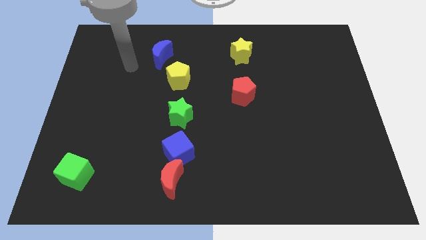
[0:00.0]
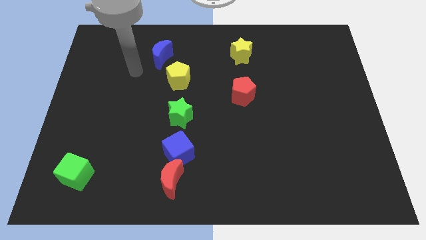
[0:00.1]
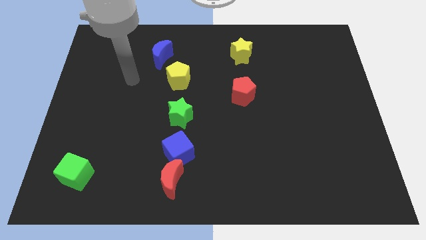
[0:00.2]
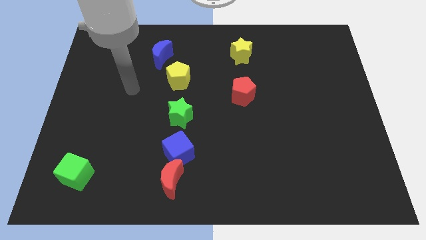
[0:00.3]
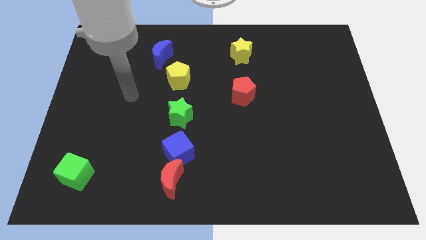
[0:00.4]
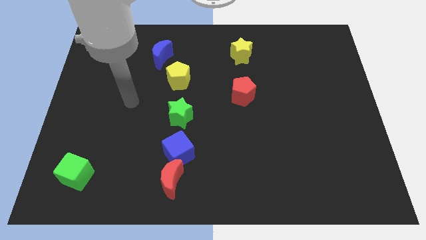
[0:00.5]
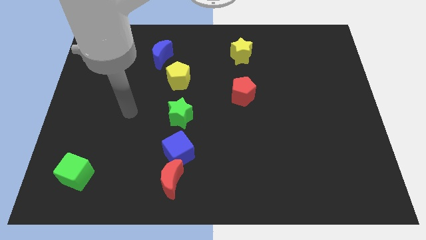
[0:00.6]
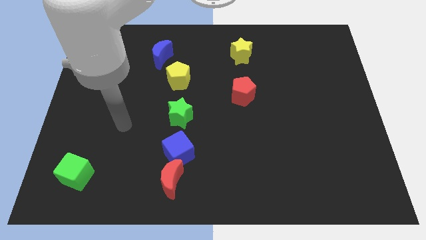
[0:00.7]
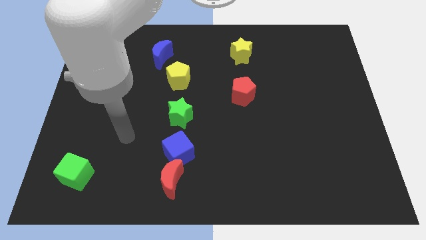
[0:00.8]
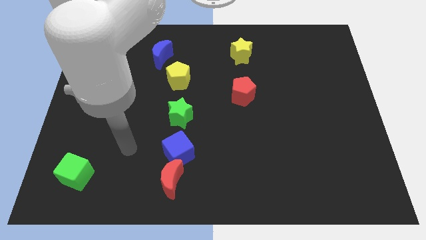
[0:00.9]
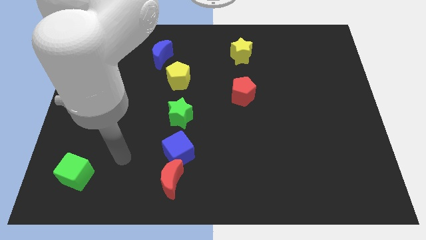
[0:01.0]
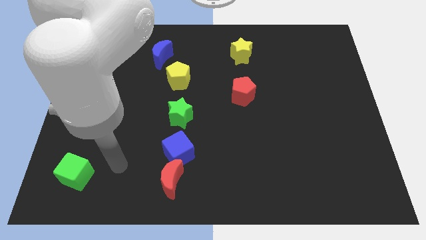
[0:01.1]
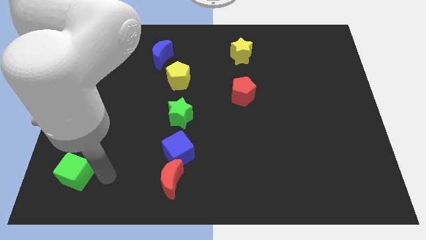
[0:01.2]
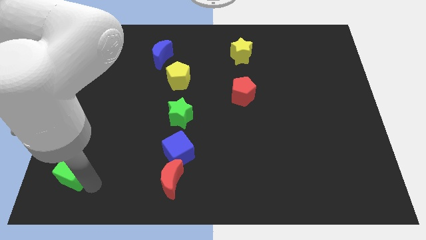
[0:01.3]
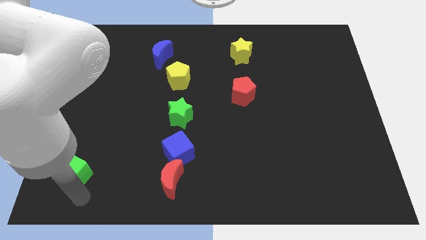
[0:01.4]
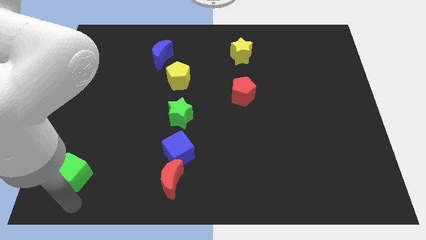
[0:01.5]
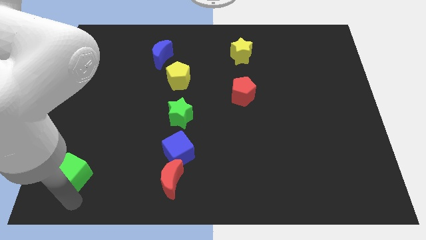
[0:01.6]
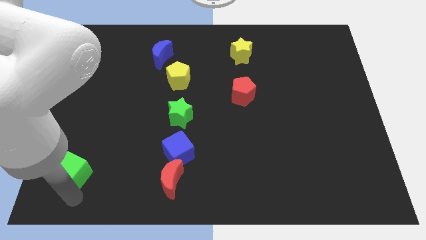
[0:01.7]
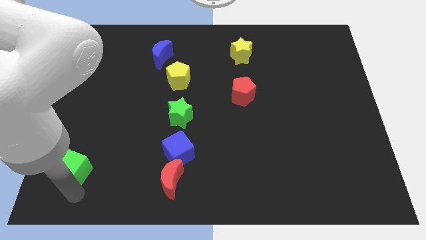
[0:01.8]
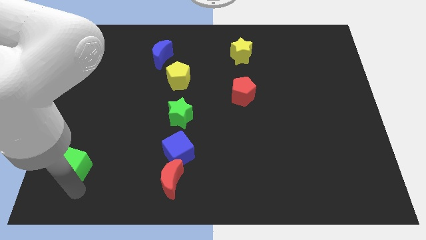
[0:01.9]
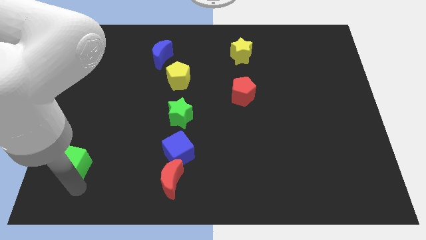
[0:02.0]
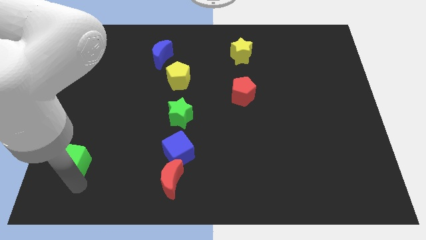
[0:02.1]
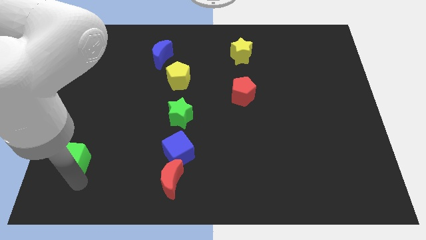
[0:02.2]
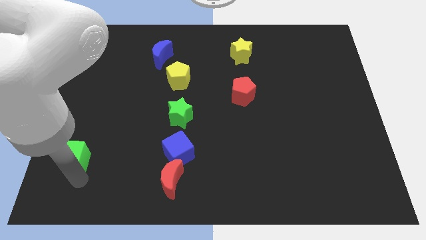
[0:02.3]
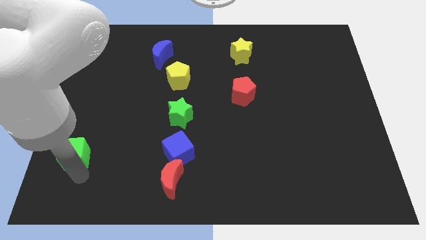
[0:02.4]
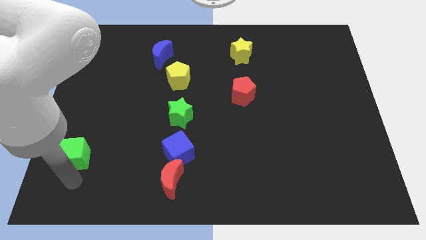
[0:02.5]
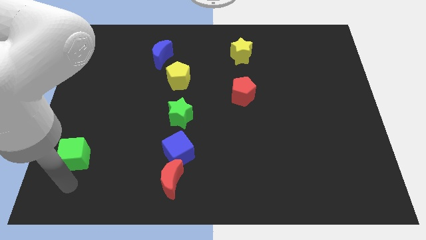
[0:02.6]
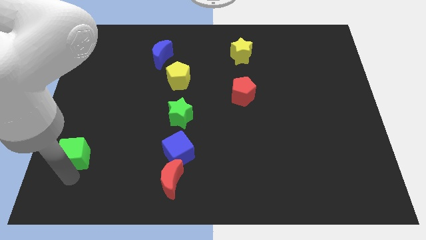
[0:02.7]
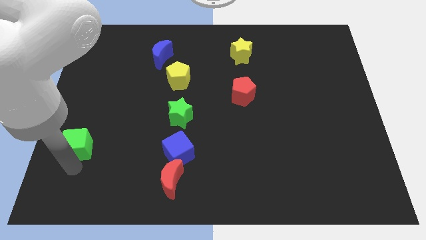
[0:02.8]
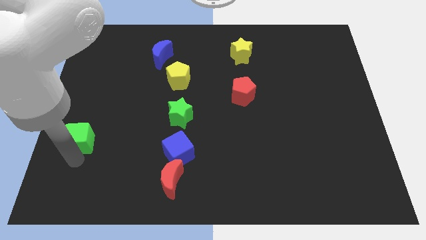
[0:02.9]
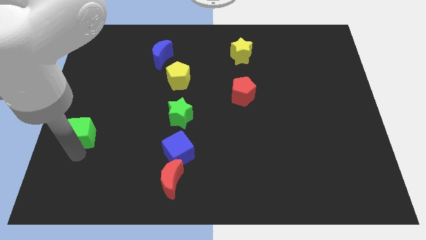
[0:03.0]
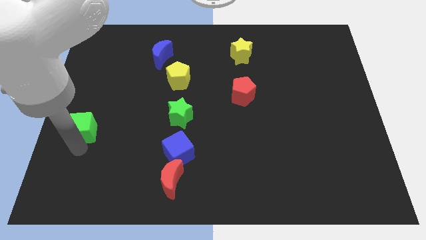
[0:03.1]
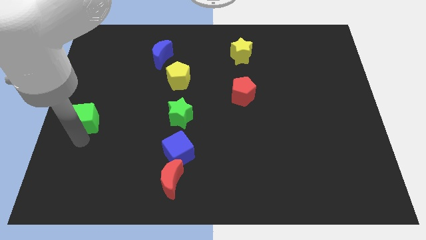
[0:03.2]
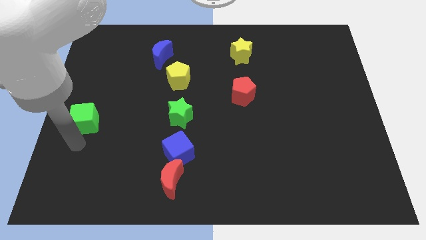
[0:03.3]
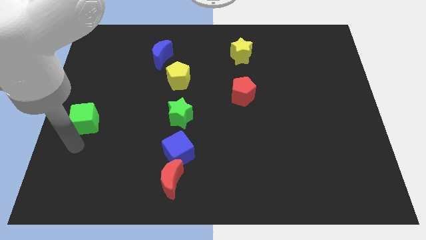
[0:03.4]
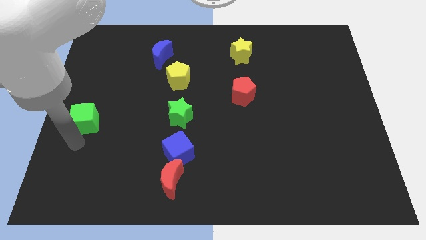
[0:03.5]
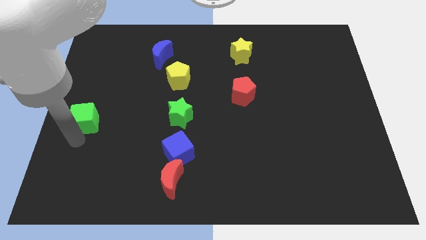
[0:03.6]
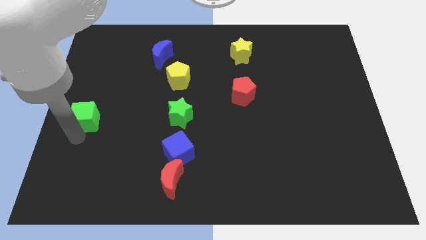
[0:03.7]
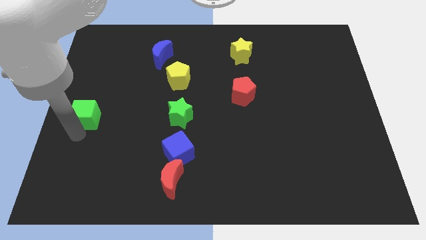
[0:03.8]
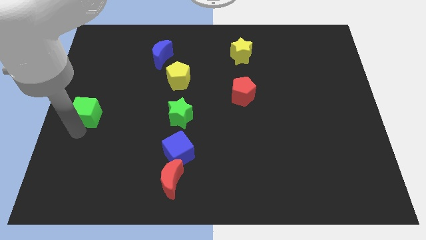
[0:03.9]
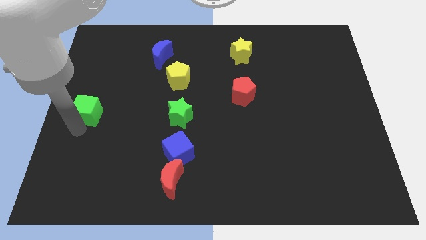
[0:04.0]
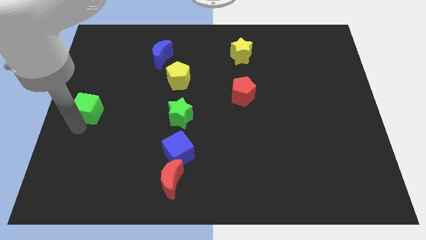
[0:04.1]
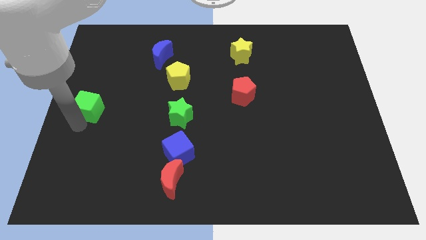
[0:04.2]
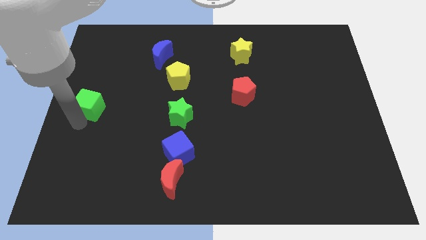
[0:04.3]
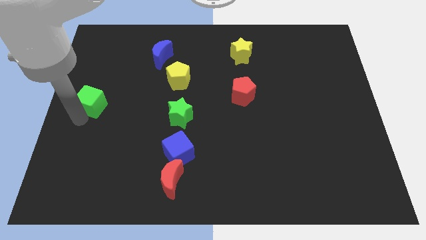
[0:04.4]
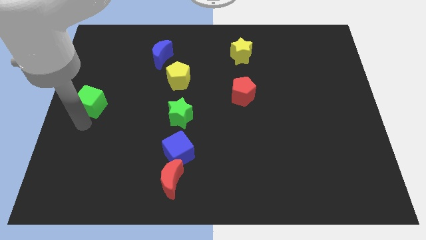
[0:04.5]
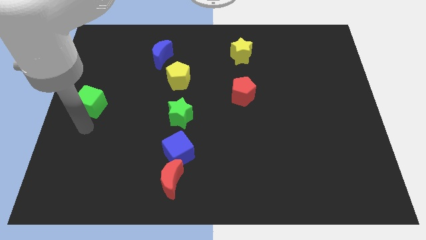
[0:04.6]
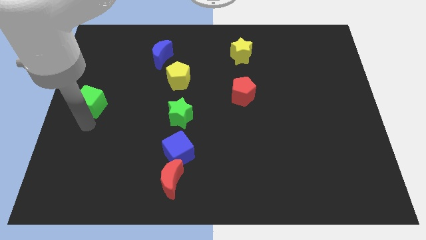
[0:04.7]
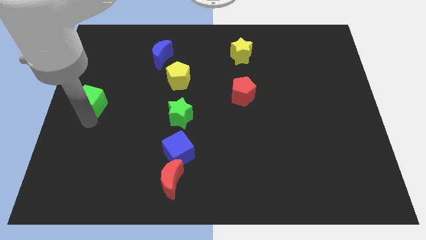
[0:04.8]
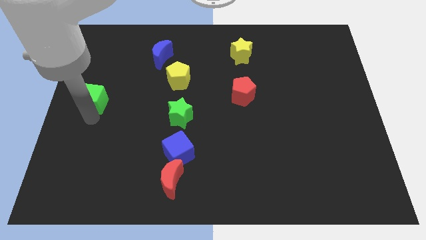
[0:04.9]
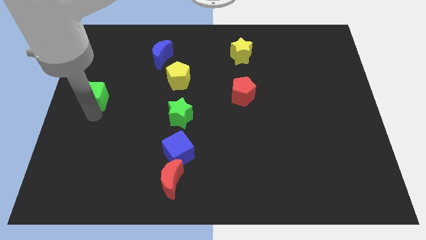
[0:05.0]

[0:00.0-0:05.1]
push the green cube upwards

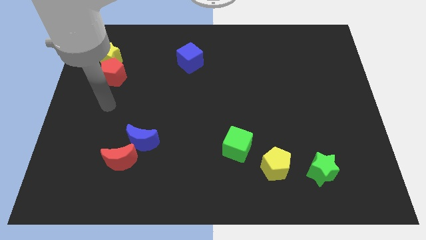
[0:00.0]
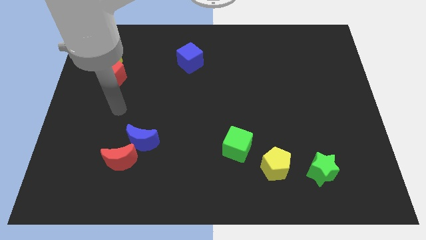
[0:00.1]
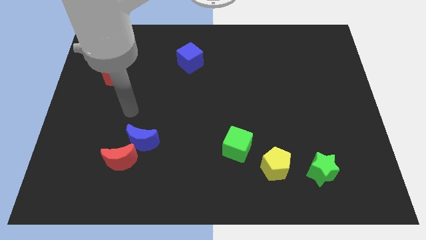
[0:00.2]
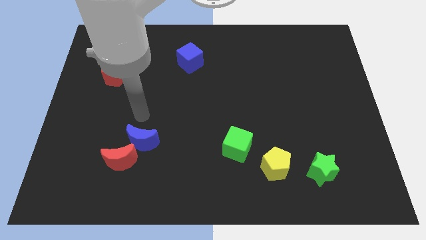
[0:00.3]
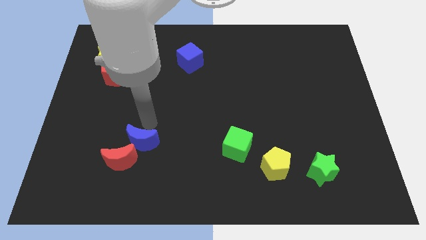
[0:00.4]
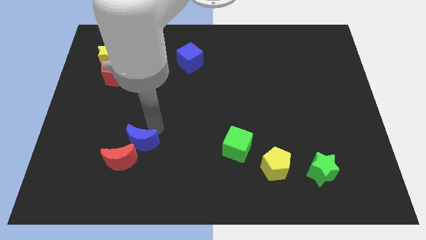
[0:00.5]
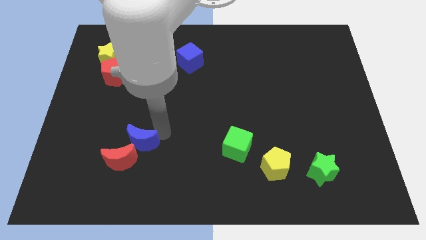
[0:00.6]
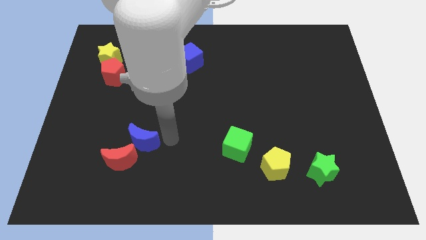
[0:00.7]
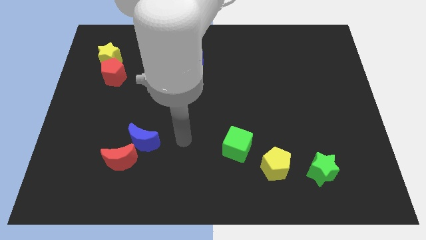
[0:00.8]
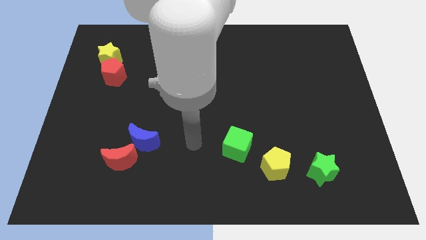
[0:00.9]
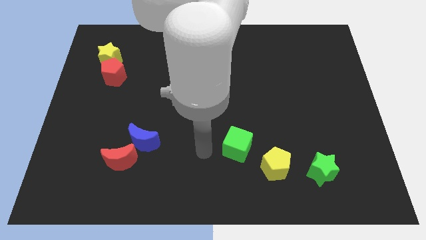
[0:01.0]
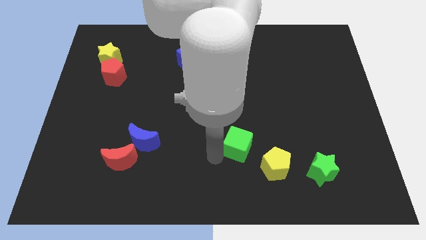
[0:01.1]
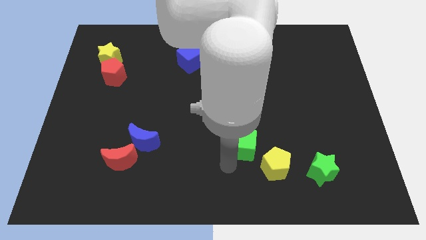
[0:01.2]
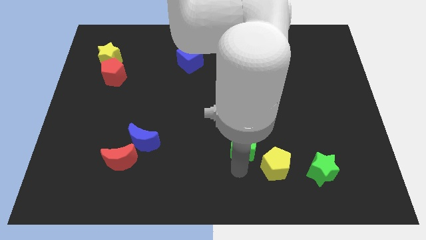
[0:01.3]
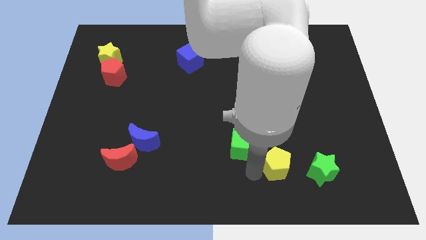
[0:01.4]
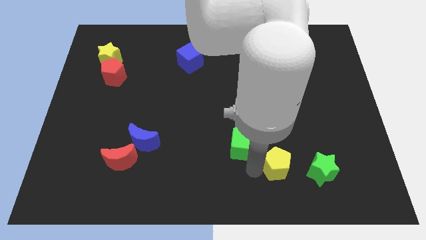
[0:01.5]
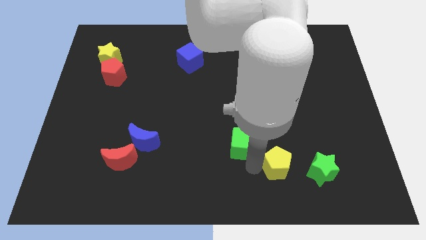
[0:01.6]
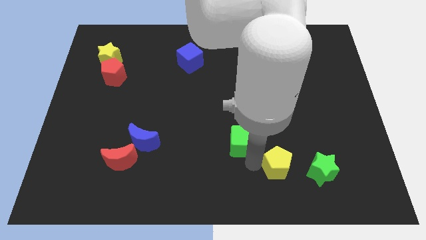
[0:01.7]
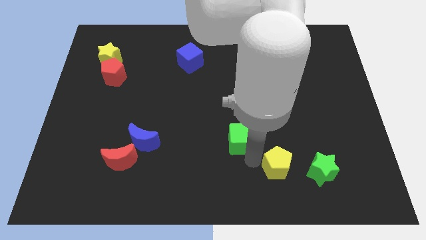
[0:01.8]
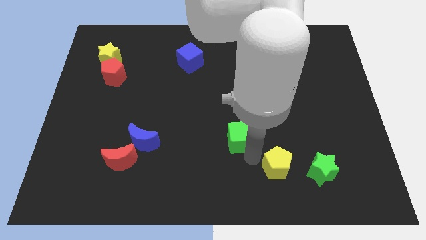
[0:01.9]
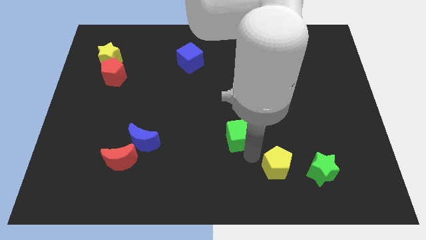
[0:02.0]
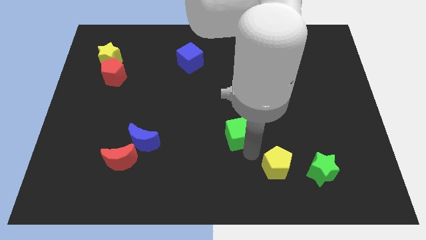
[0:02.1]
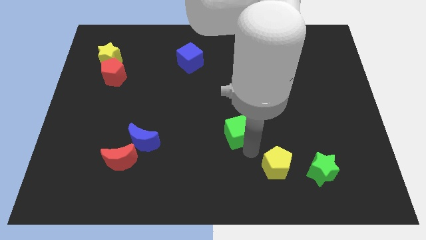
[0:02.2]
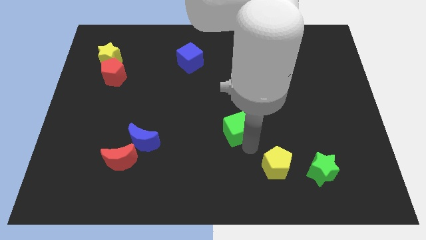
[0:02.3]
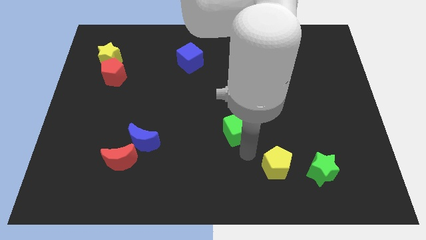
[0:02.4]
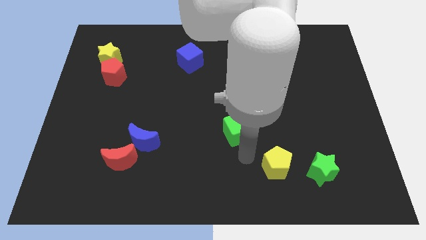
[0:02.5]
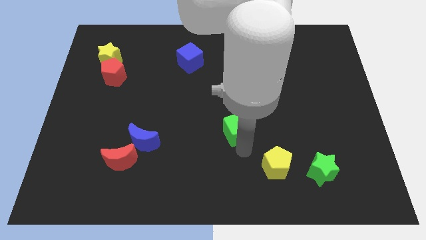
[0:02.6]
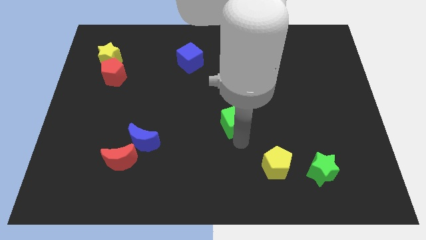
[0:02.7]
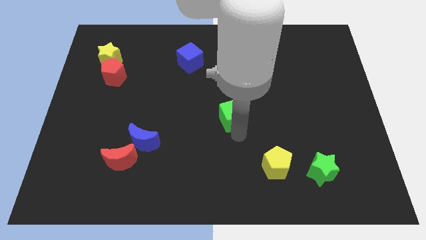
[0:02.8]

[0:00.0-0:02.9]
slide the green cube up a bit
